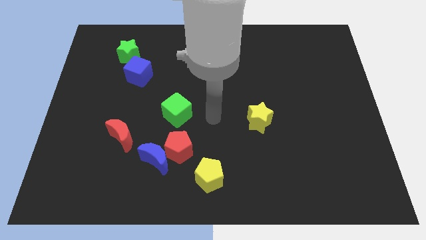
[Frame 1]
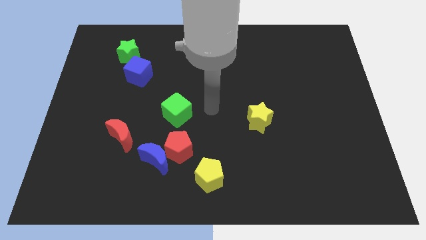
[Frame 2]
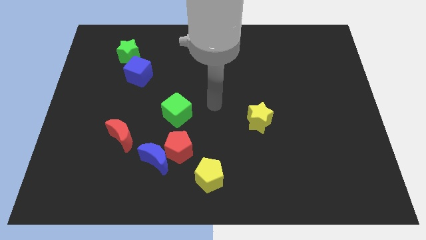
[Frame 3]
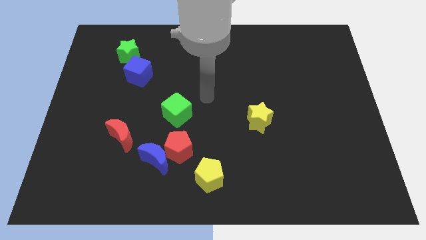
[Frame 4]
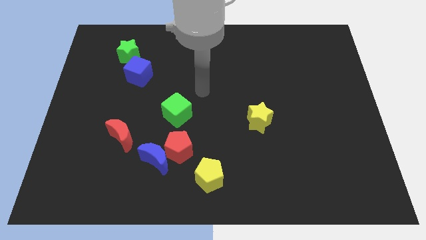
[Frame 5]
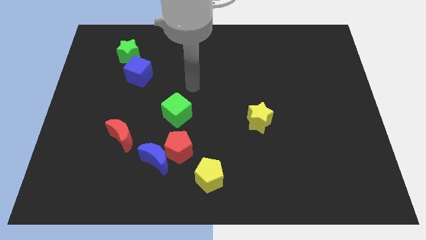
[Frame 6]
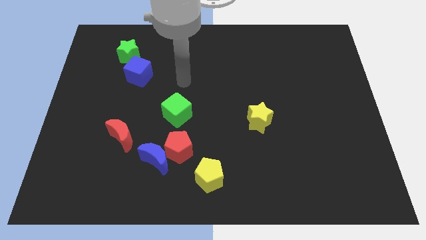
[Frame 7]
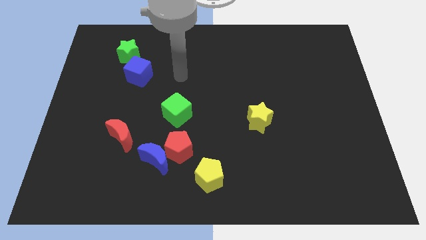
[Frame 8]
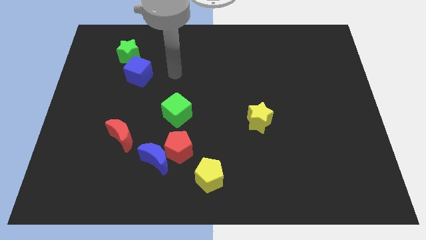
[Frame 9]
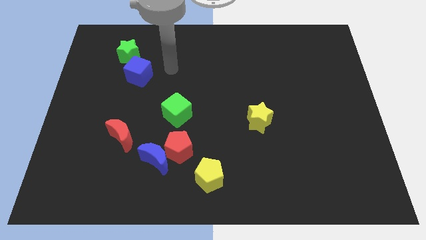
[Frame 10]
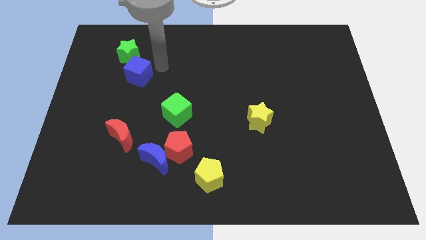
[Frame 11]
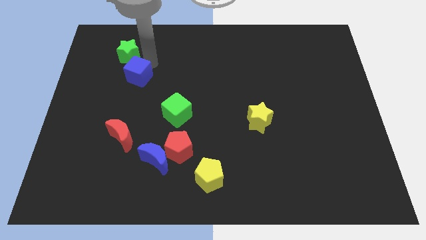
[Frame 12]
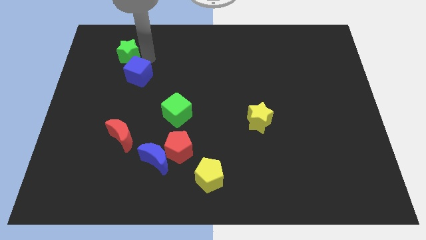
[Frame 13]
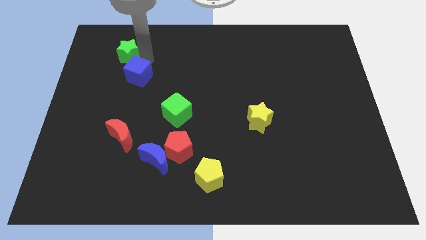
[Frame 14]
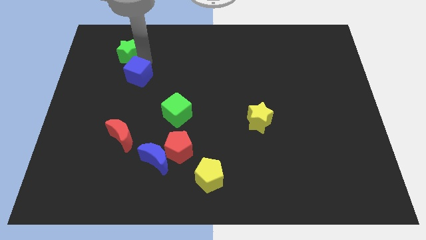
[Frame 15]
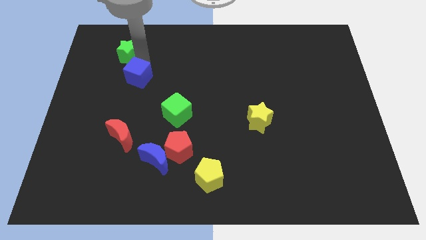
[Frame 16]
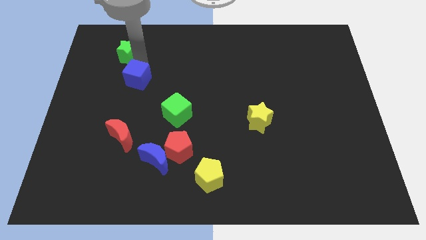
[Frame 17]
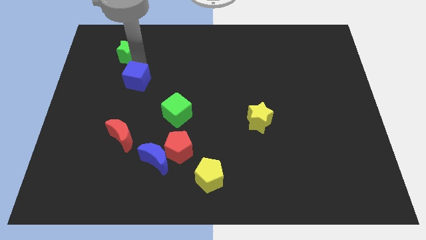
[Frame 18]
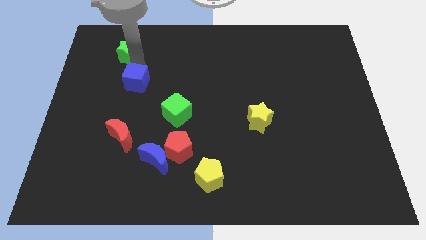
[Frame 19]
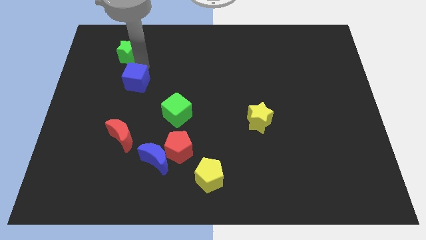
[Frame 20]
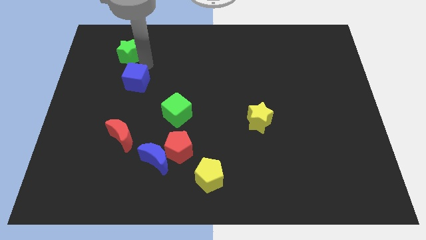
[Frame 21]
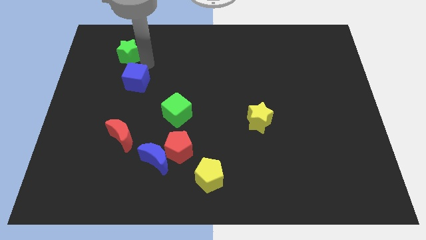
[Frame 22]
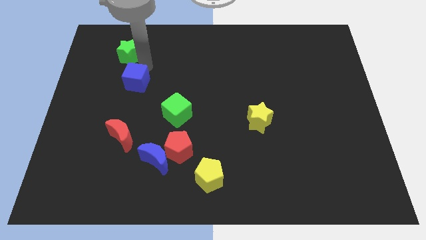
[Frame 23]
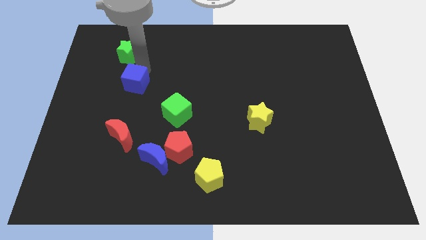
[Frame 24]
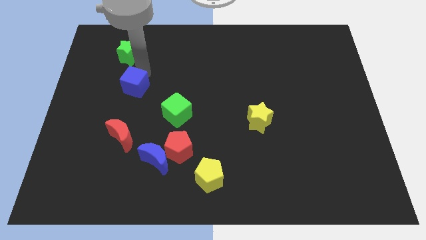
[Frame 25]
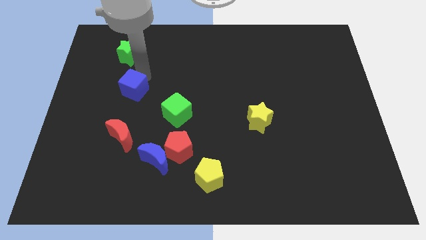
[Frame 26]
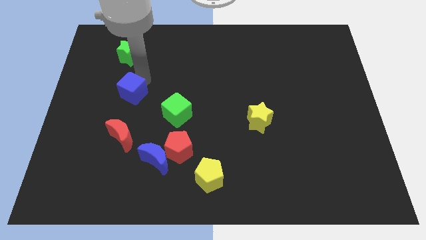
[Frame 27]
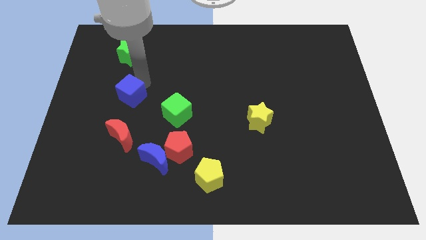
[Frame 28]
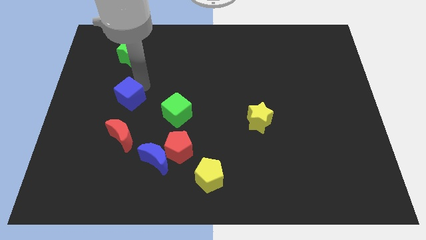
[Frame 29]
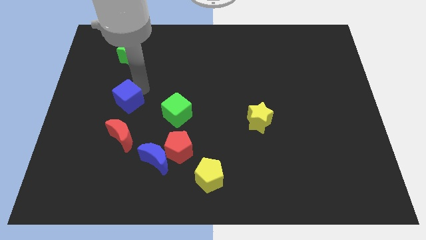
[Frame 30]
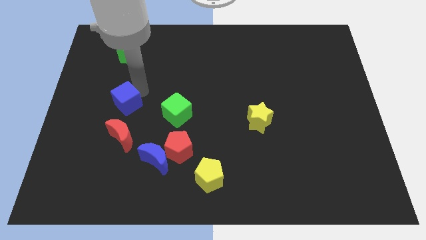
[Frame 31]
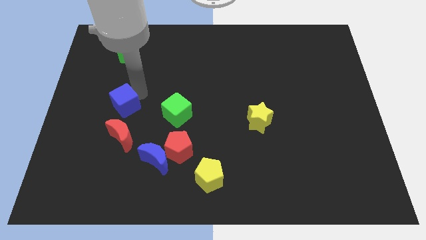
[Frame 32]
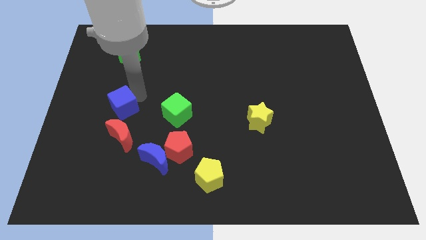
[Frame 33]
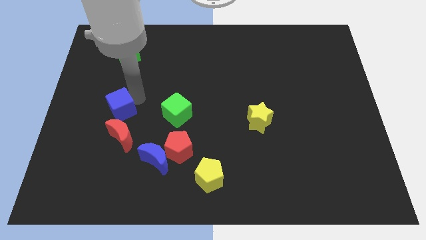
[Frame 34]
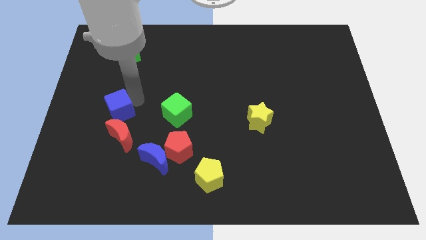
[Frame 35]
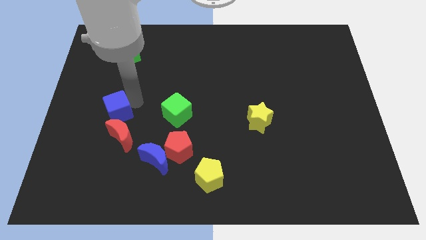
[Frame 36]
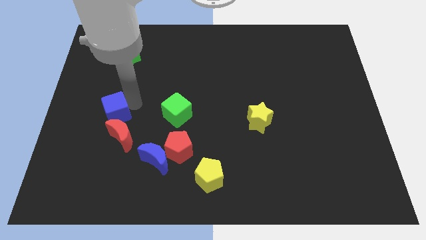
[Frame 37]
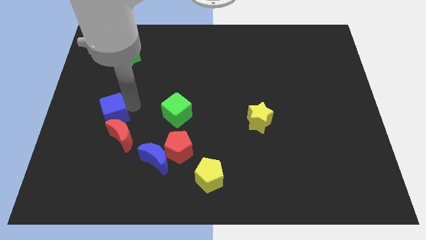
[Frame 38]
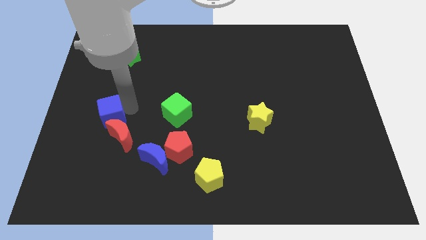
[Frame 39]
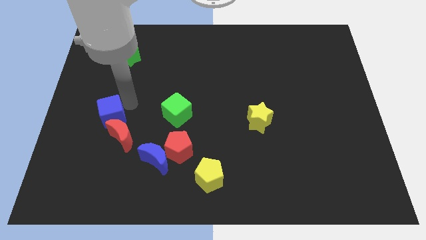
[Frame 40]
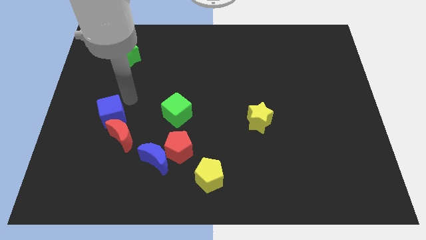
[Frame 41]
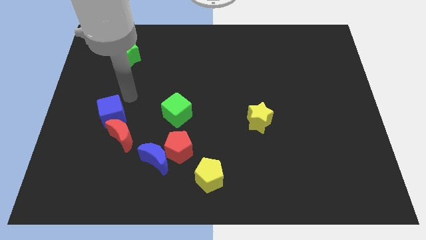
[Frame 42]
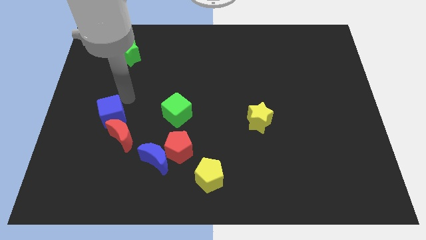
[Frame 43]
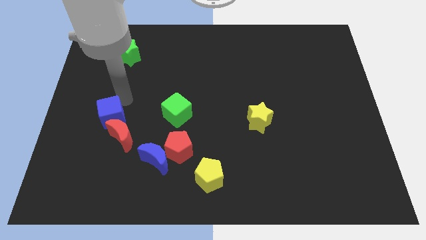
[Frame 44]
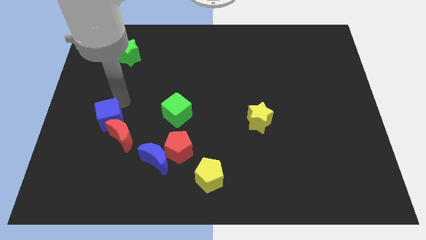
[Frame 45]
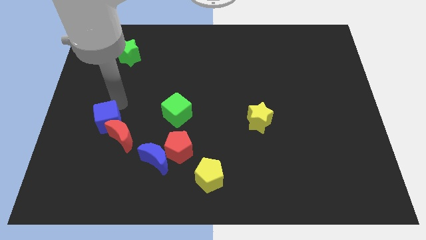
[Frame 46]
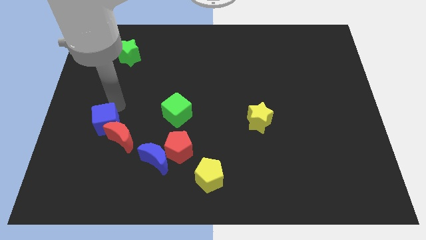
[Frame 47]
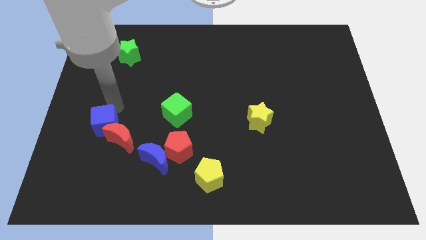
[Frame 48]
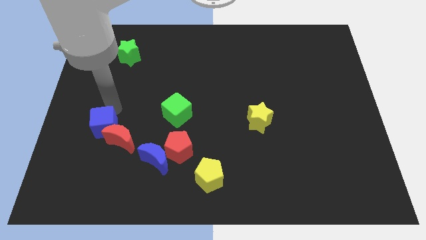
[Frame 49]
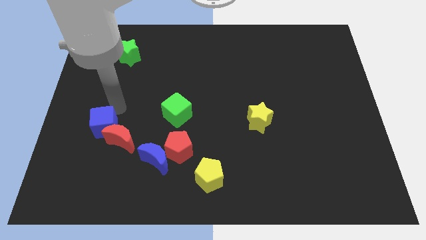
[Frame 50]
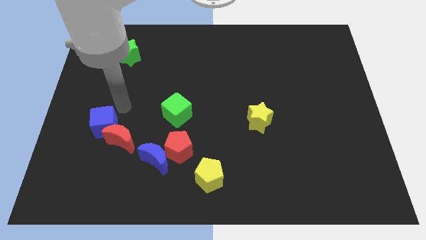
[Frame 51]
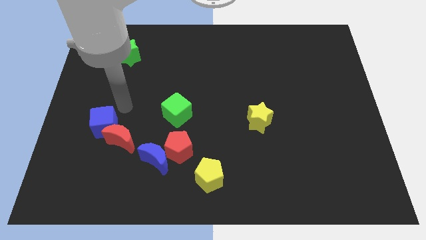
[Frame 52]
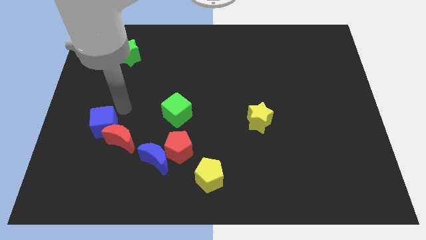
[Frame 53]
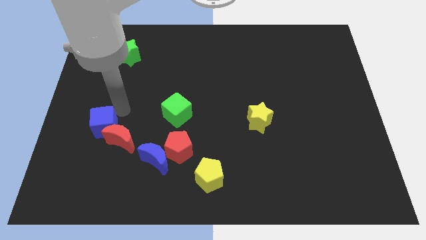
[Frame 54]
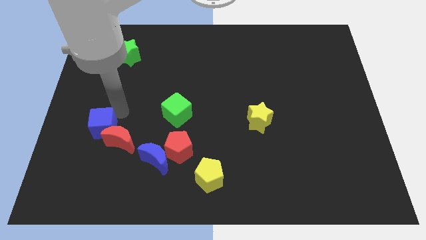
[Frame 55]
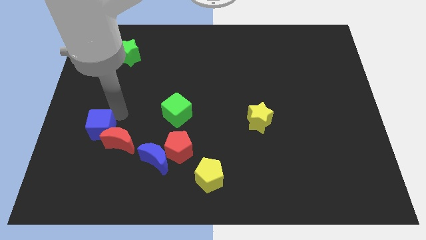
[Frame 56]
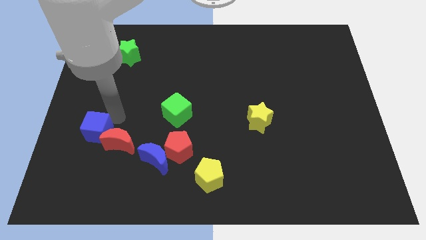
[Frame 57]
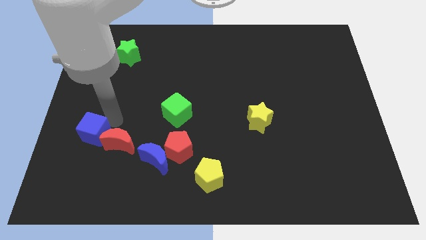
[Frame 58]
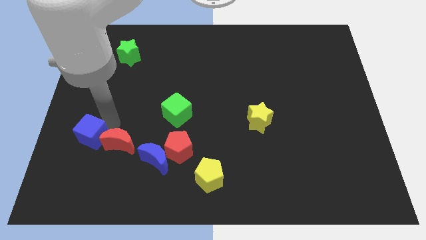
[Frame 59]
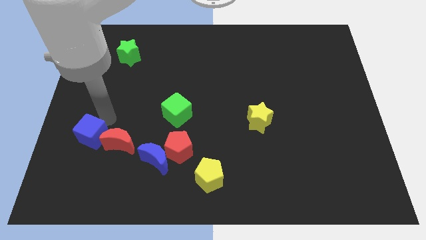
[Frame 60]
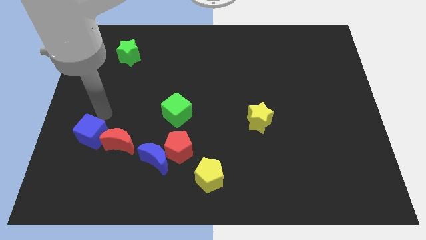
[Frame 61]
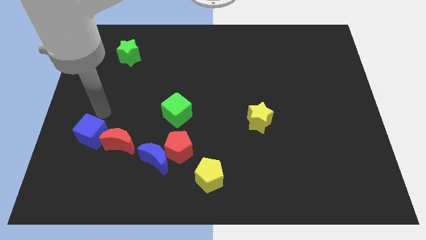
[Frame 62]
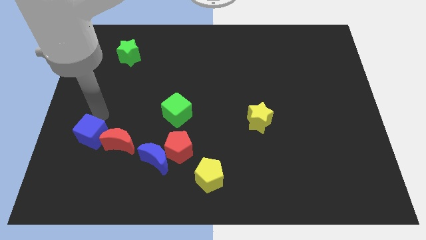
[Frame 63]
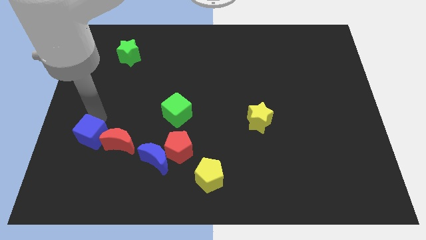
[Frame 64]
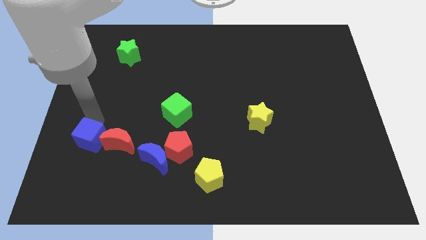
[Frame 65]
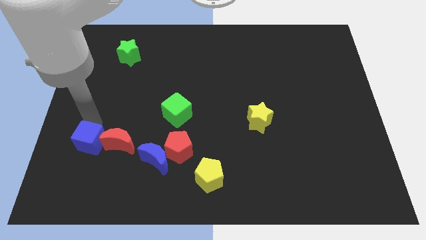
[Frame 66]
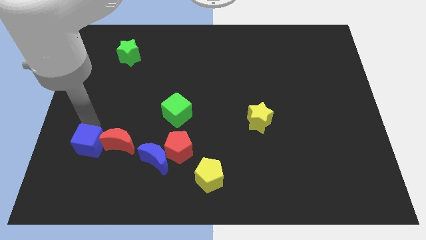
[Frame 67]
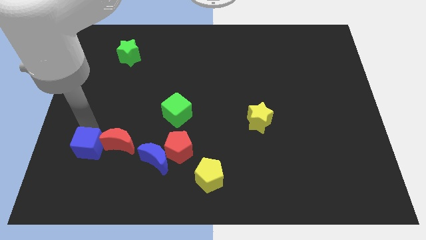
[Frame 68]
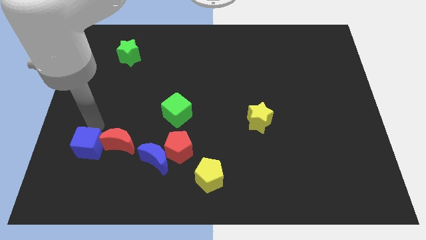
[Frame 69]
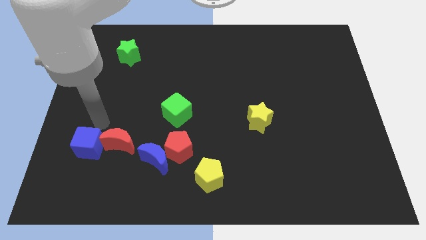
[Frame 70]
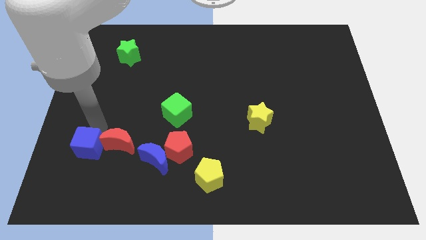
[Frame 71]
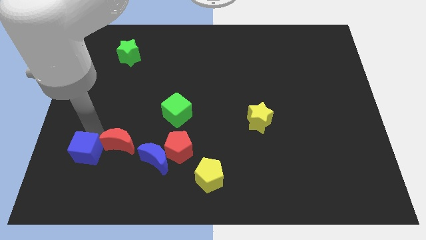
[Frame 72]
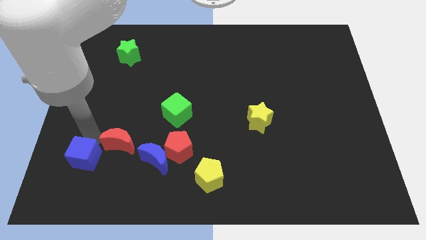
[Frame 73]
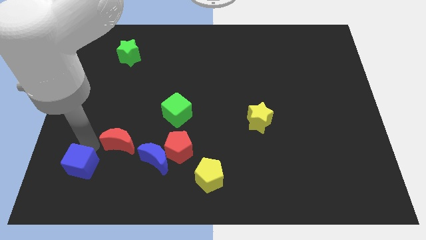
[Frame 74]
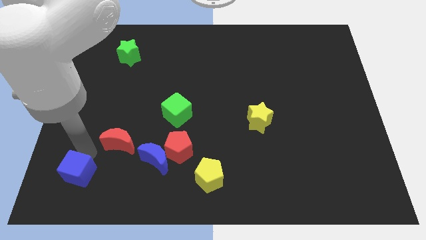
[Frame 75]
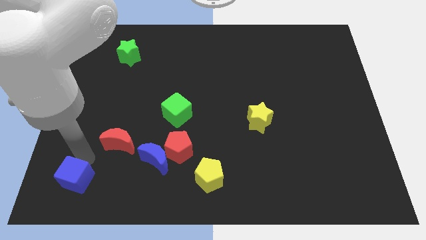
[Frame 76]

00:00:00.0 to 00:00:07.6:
slide the blue cube to the bottom left of the board
